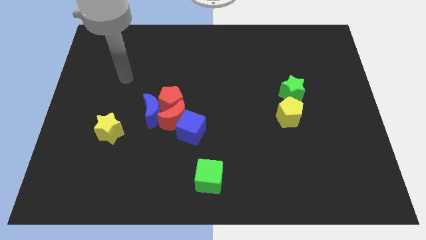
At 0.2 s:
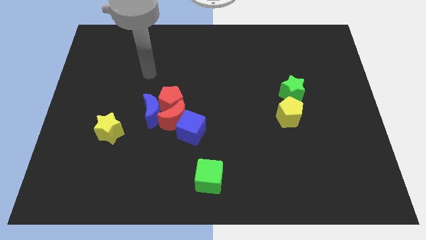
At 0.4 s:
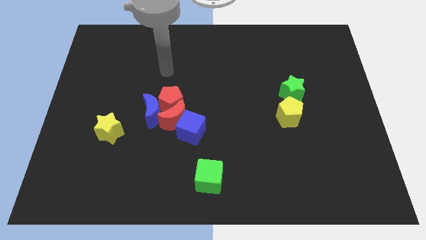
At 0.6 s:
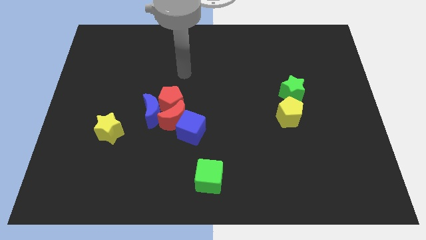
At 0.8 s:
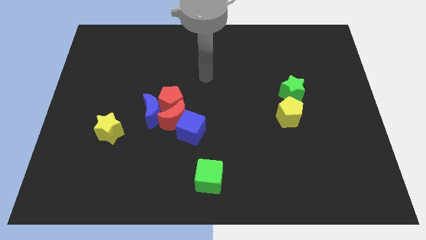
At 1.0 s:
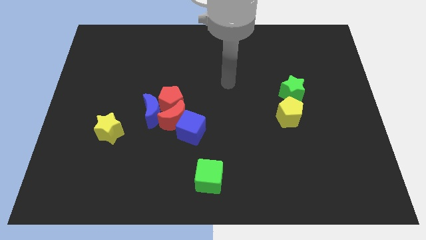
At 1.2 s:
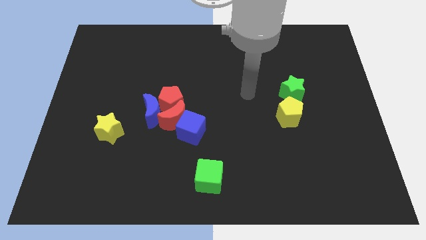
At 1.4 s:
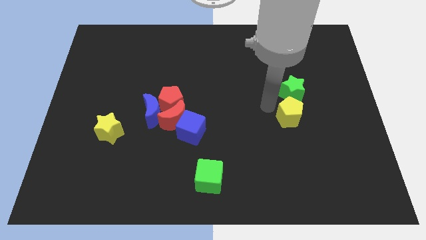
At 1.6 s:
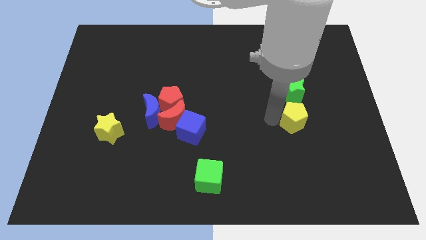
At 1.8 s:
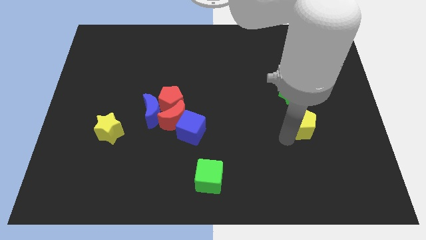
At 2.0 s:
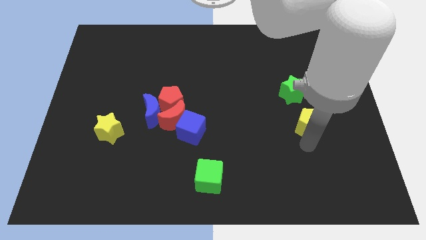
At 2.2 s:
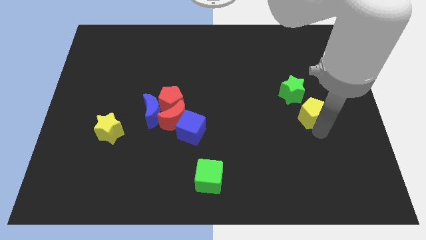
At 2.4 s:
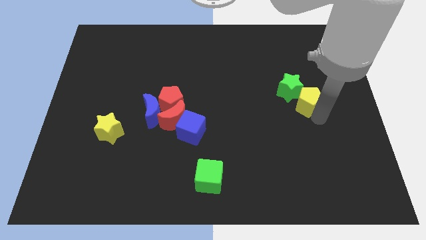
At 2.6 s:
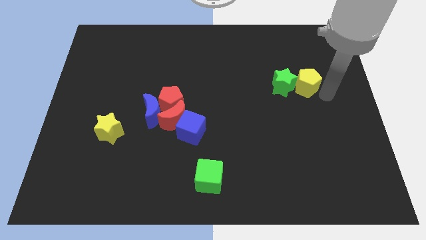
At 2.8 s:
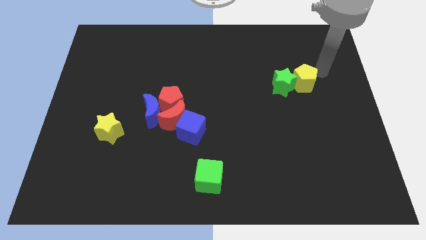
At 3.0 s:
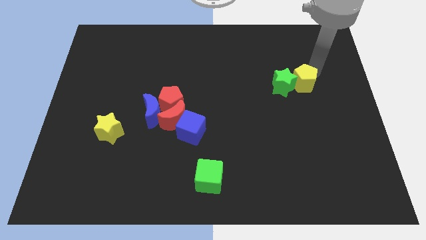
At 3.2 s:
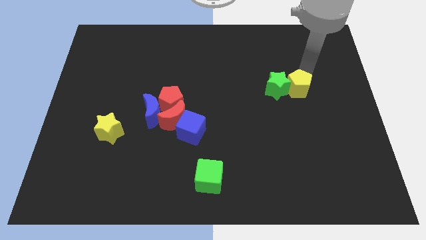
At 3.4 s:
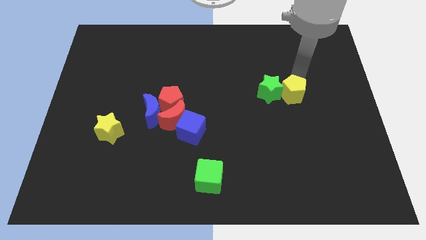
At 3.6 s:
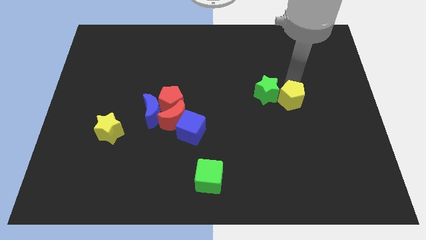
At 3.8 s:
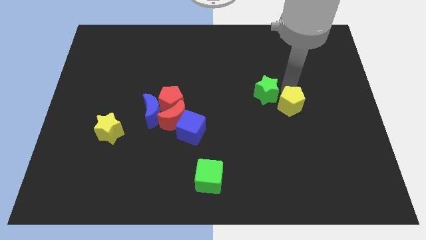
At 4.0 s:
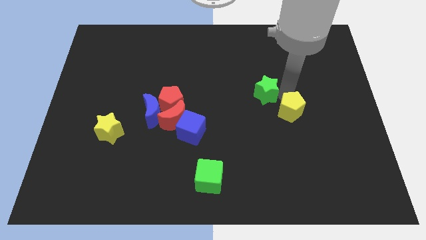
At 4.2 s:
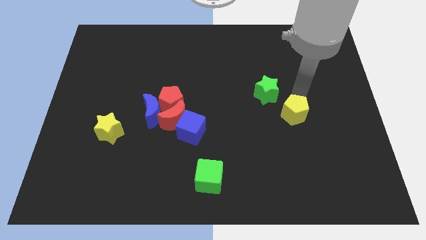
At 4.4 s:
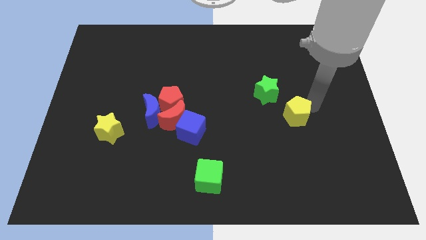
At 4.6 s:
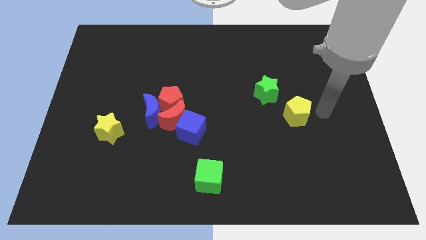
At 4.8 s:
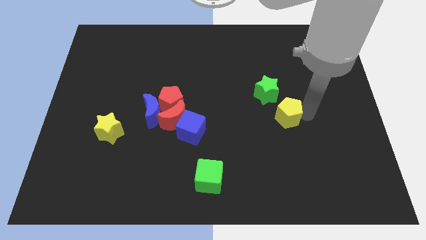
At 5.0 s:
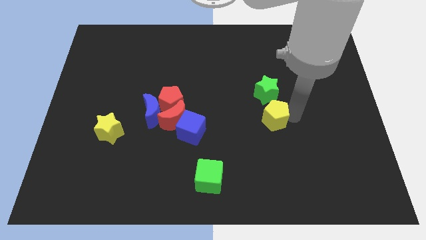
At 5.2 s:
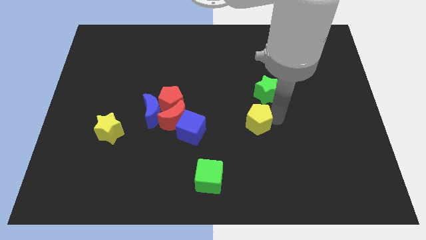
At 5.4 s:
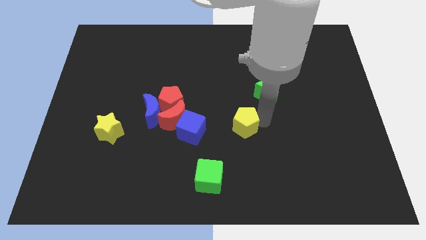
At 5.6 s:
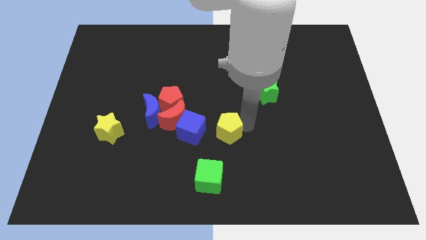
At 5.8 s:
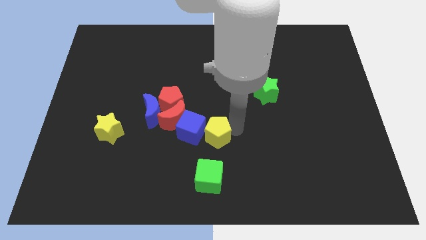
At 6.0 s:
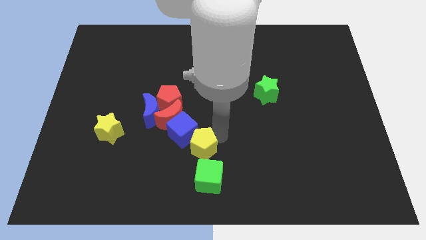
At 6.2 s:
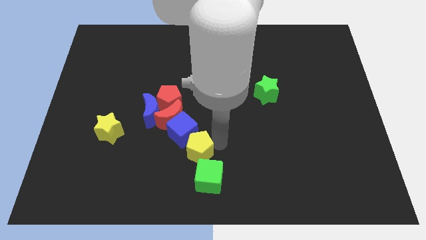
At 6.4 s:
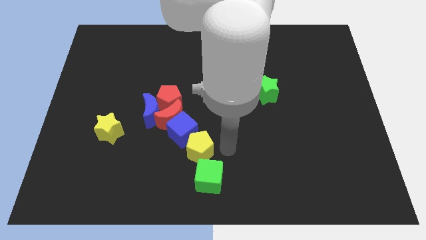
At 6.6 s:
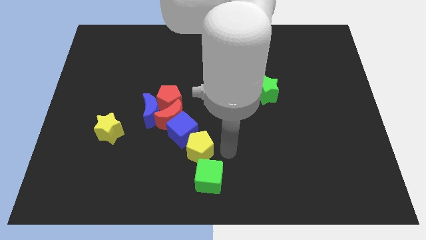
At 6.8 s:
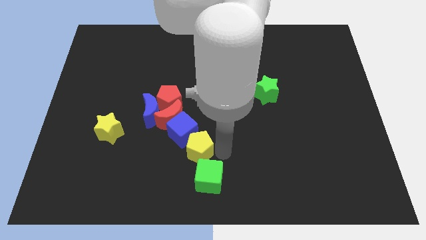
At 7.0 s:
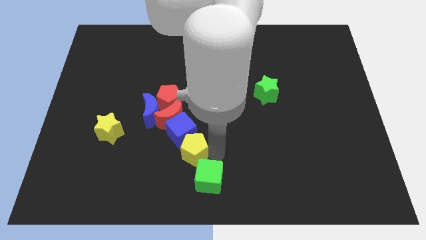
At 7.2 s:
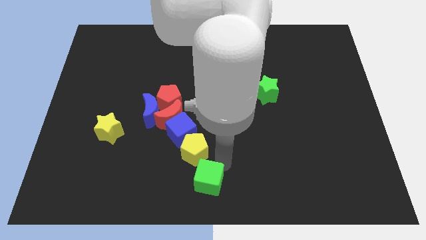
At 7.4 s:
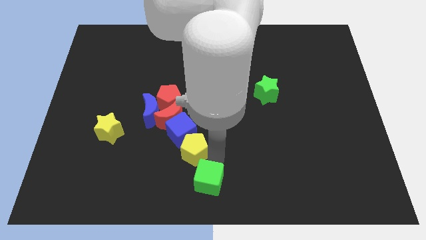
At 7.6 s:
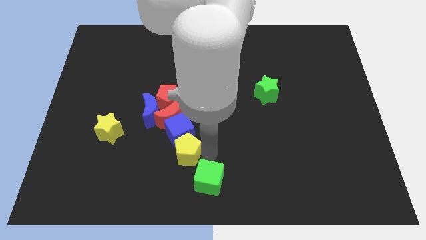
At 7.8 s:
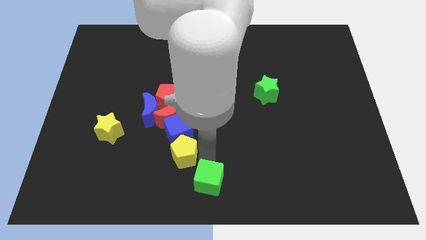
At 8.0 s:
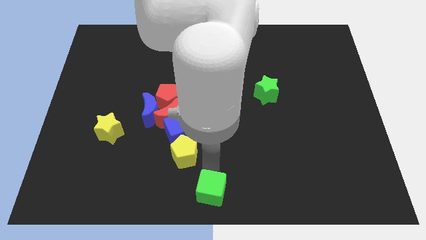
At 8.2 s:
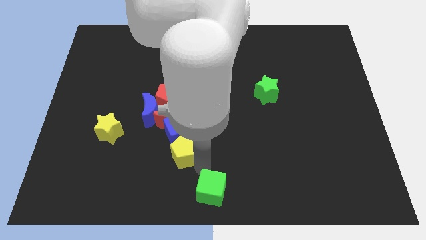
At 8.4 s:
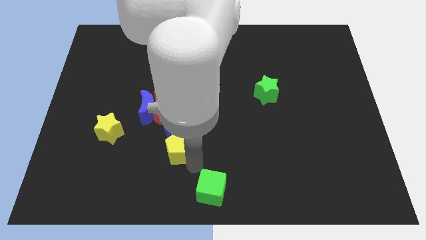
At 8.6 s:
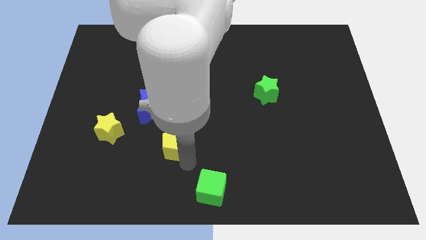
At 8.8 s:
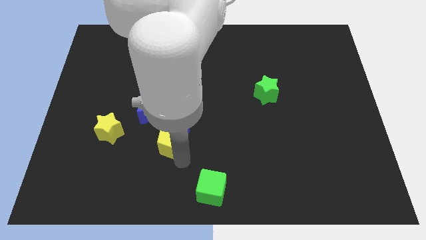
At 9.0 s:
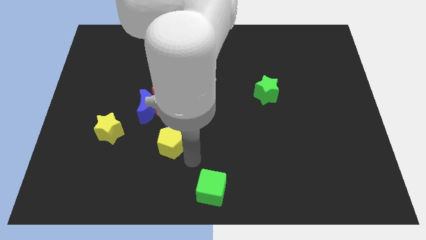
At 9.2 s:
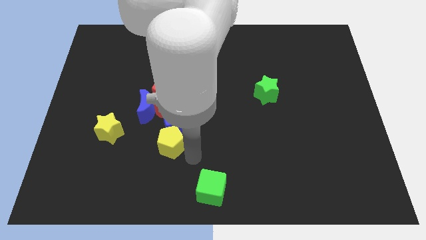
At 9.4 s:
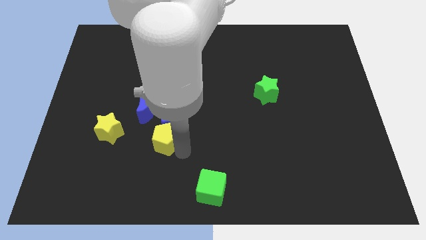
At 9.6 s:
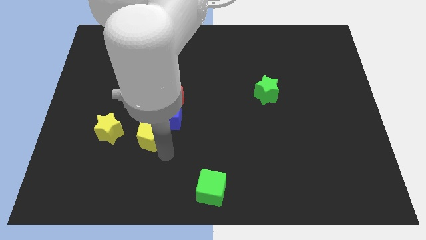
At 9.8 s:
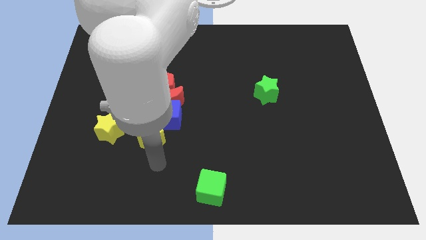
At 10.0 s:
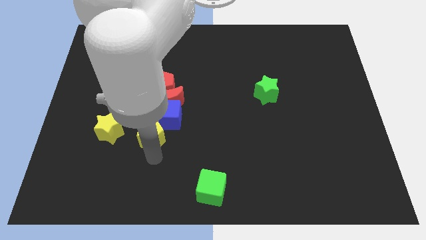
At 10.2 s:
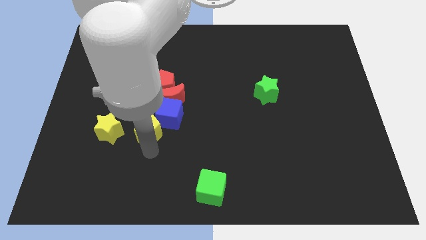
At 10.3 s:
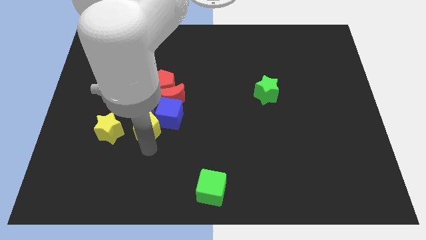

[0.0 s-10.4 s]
slide the yellow pentagon to the blue moon

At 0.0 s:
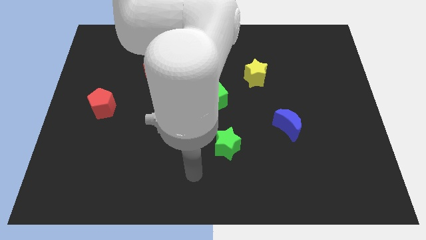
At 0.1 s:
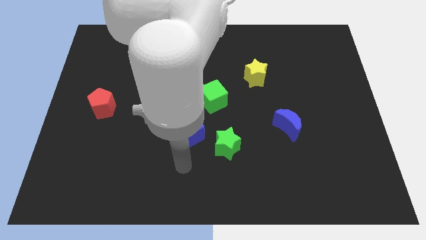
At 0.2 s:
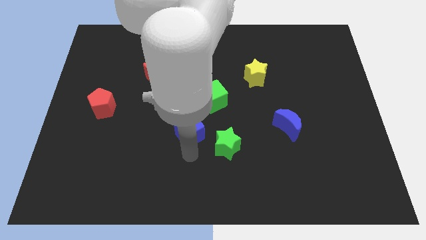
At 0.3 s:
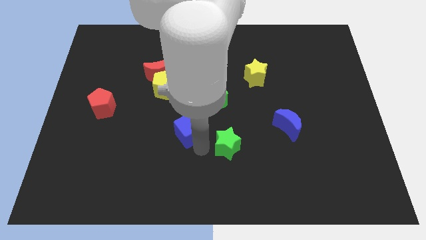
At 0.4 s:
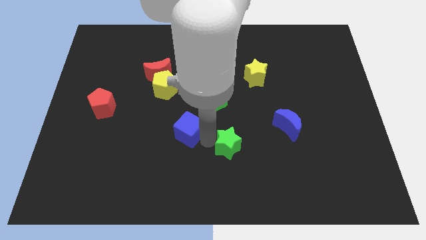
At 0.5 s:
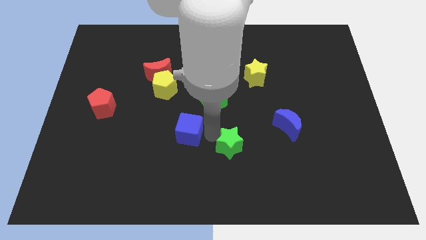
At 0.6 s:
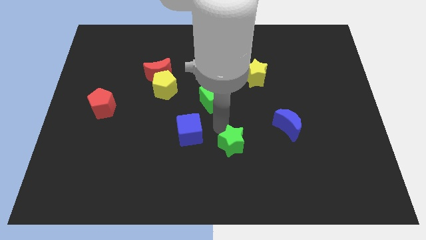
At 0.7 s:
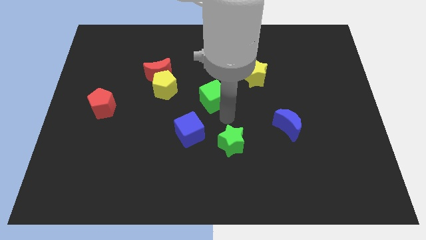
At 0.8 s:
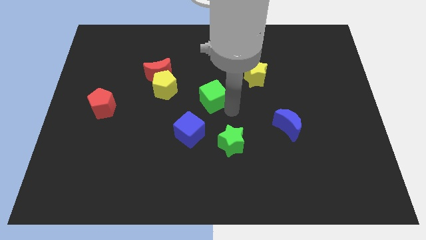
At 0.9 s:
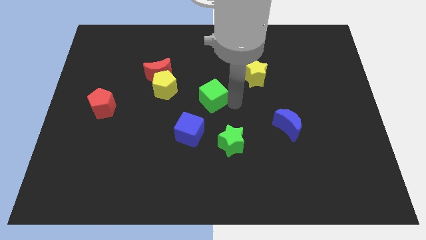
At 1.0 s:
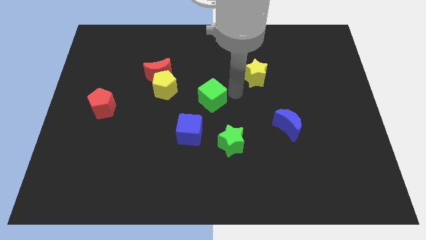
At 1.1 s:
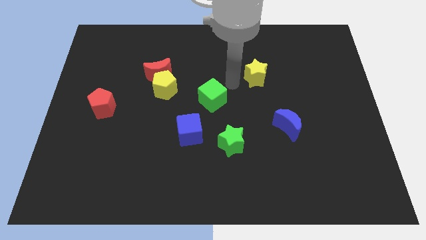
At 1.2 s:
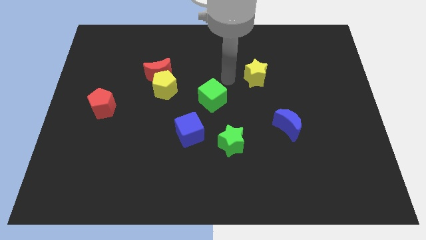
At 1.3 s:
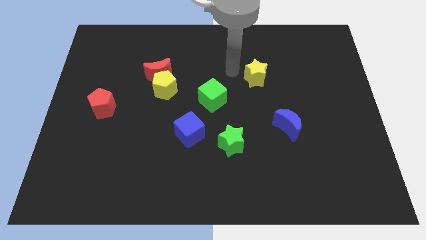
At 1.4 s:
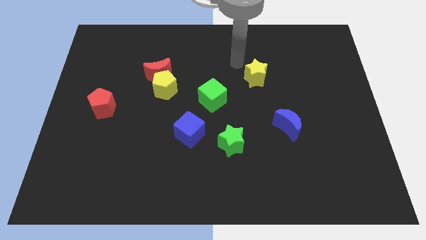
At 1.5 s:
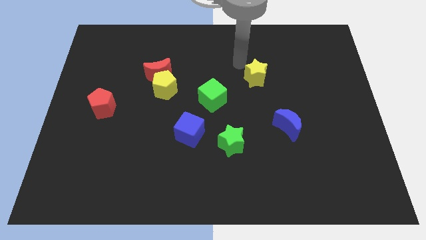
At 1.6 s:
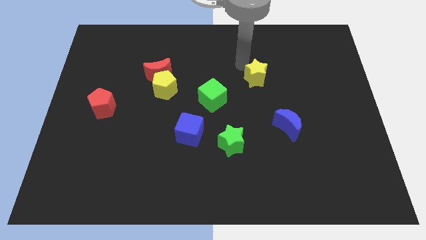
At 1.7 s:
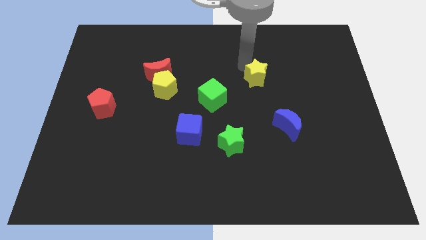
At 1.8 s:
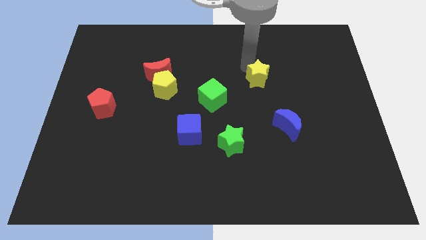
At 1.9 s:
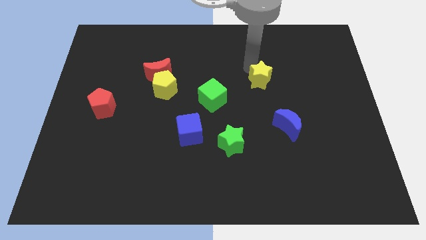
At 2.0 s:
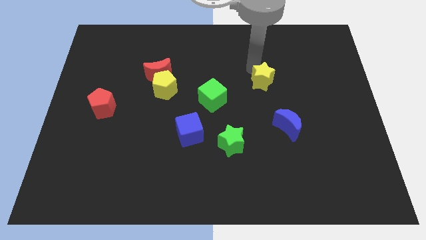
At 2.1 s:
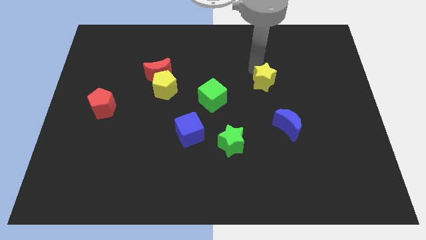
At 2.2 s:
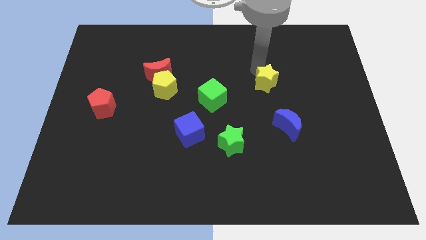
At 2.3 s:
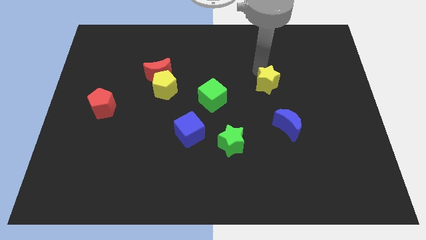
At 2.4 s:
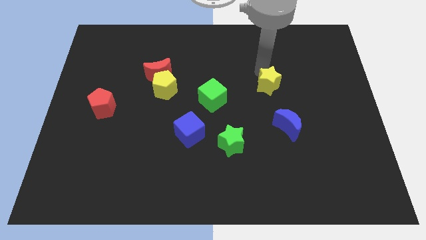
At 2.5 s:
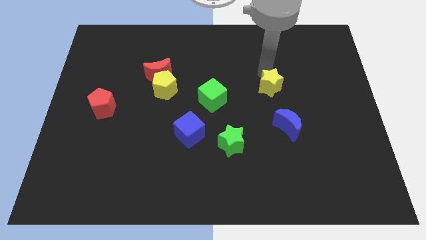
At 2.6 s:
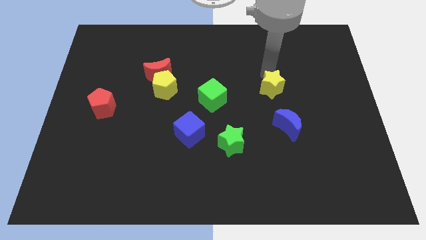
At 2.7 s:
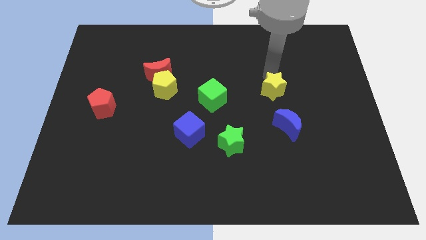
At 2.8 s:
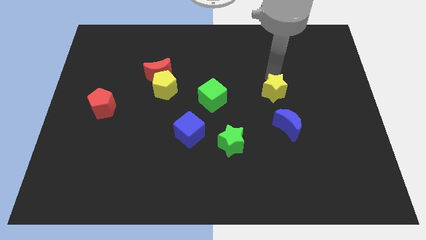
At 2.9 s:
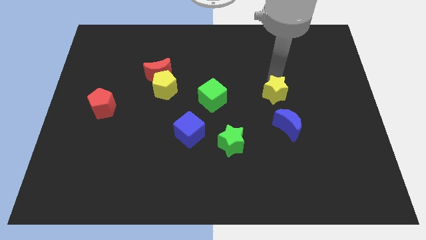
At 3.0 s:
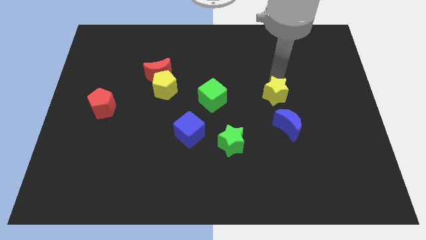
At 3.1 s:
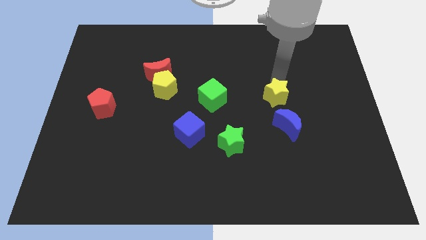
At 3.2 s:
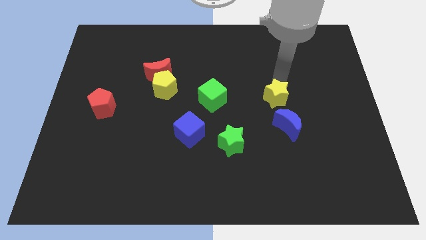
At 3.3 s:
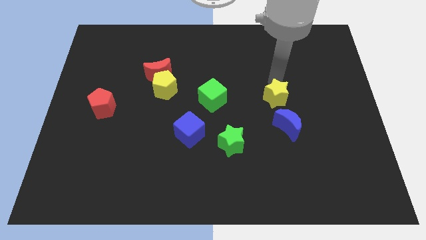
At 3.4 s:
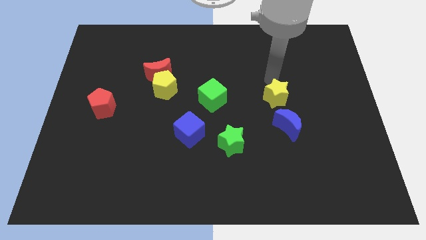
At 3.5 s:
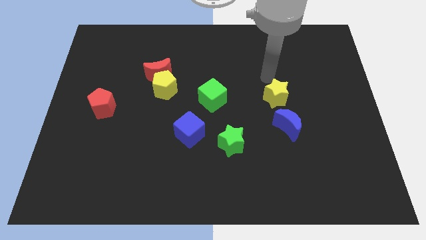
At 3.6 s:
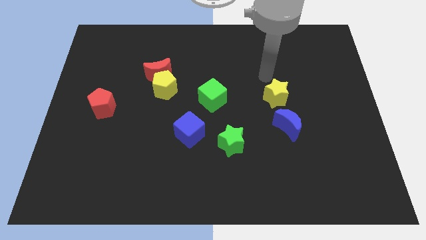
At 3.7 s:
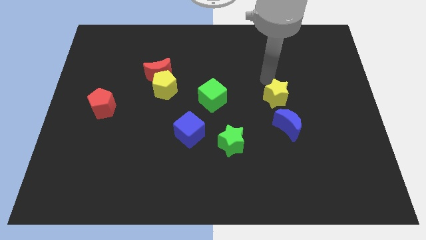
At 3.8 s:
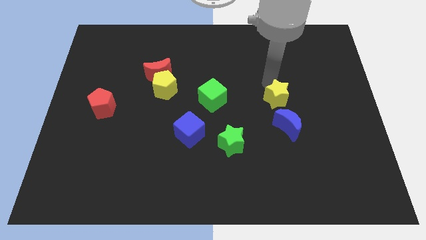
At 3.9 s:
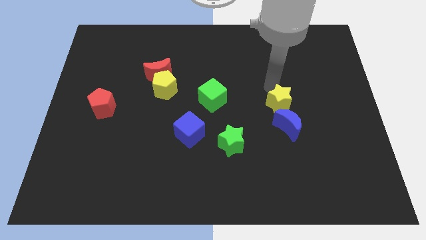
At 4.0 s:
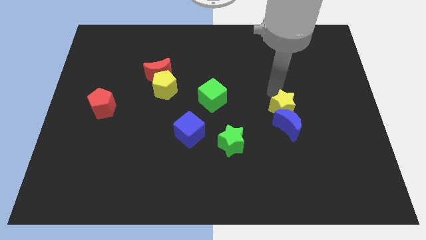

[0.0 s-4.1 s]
move the yellow star towards the blue moon
